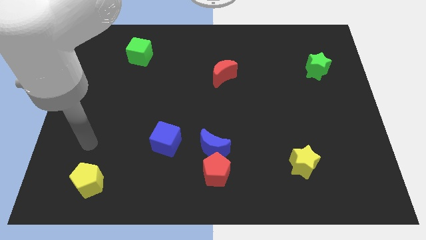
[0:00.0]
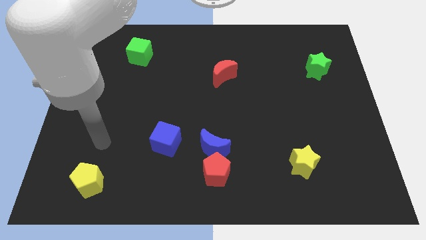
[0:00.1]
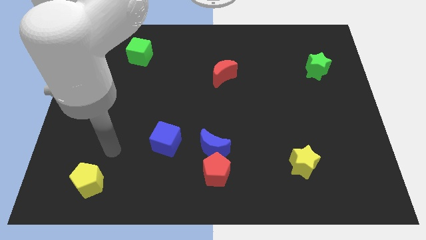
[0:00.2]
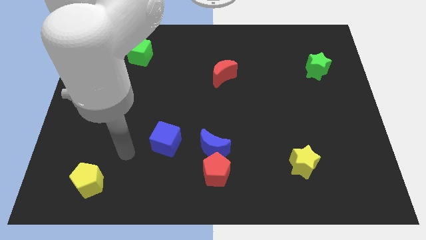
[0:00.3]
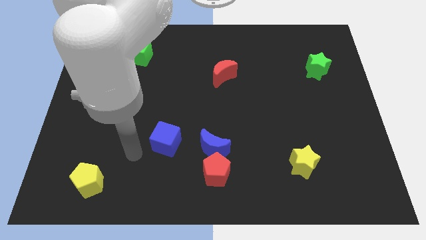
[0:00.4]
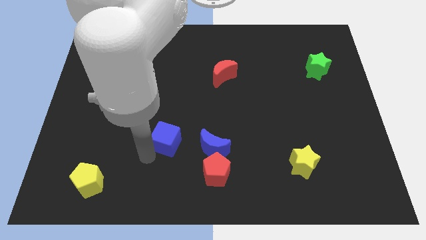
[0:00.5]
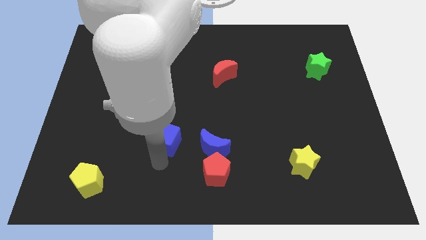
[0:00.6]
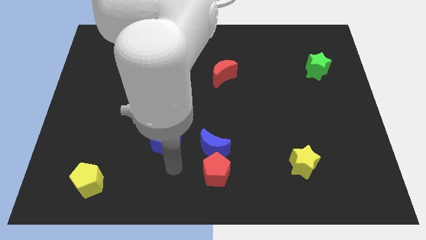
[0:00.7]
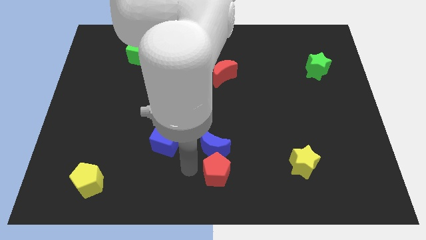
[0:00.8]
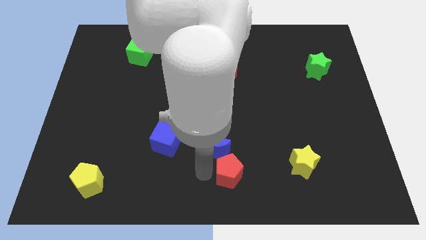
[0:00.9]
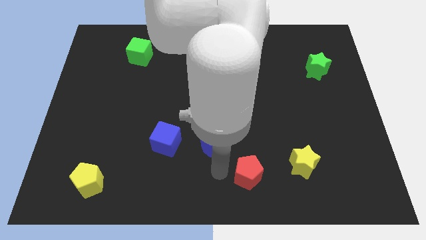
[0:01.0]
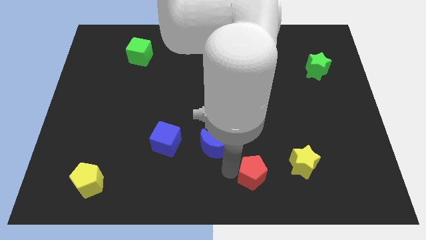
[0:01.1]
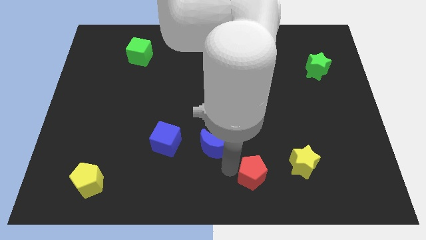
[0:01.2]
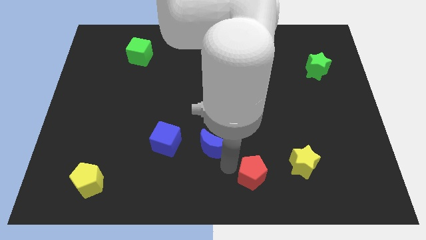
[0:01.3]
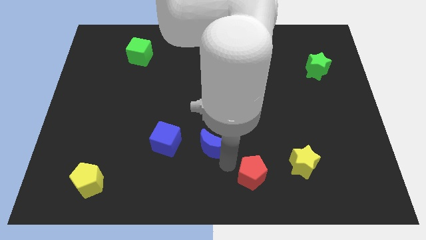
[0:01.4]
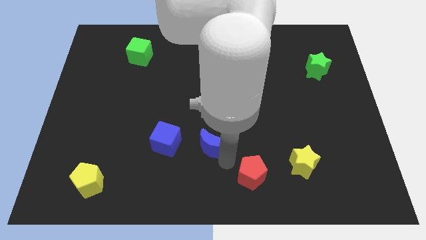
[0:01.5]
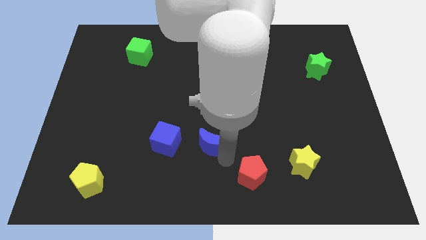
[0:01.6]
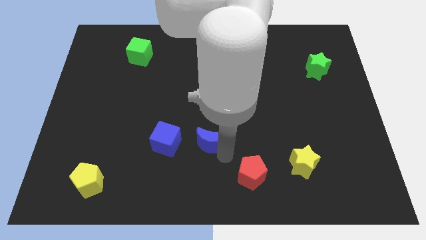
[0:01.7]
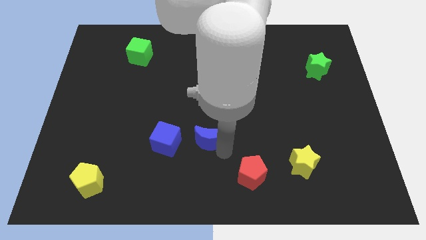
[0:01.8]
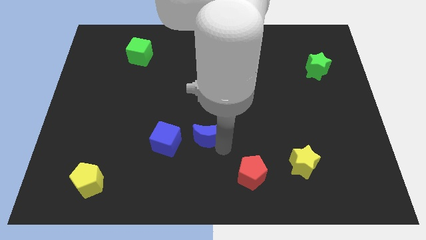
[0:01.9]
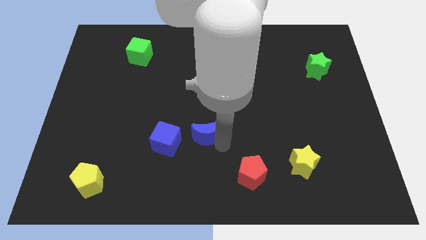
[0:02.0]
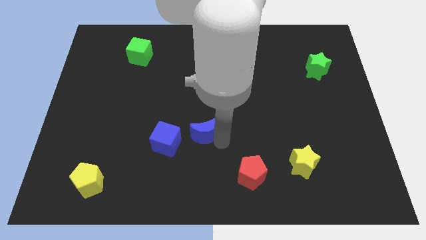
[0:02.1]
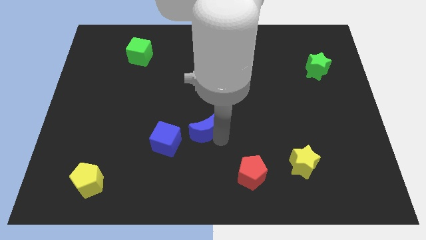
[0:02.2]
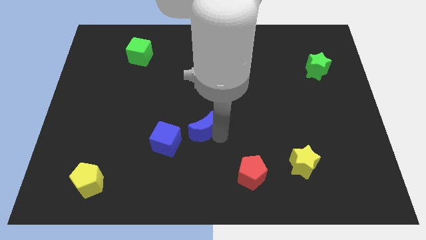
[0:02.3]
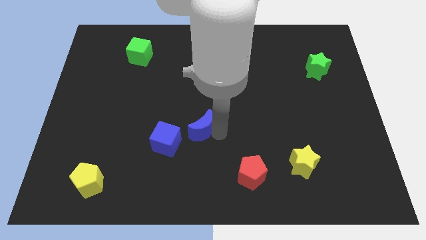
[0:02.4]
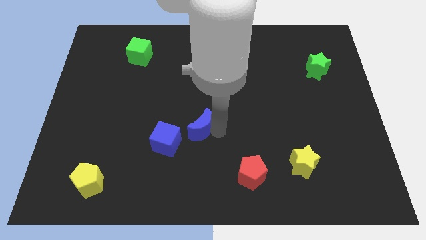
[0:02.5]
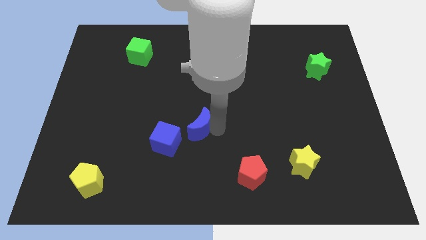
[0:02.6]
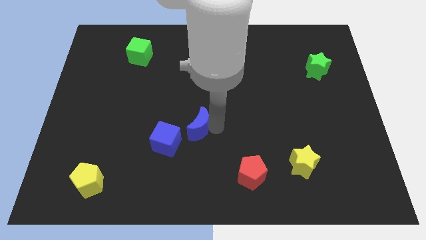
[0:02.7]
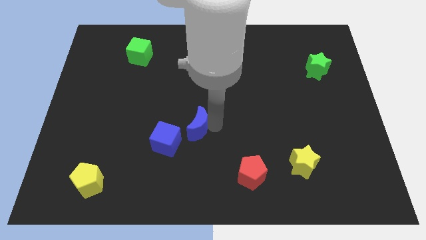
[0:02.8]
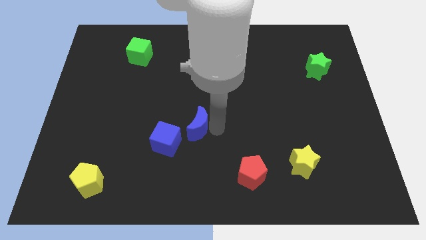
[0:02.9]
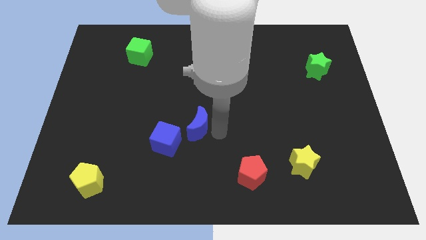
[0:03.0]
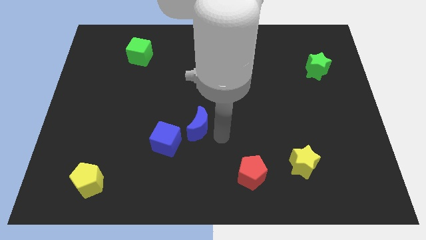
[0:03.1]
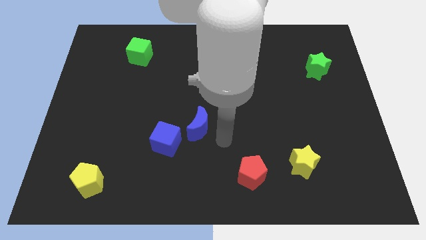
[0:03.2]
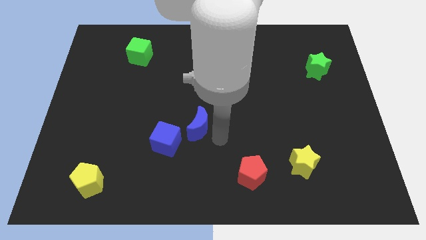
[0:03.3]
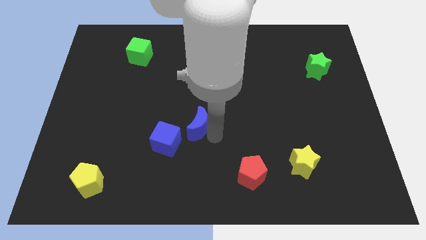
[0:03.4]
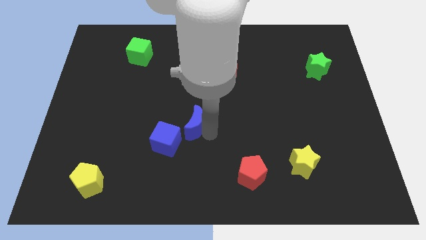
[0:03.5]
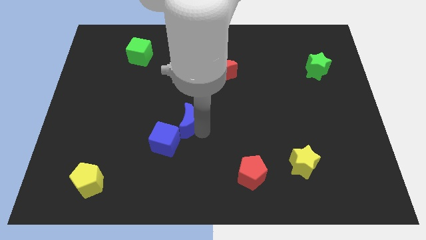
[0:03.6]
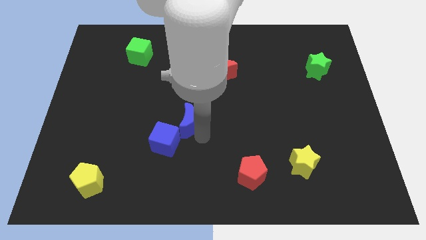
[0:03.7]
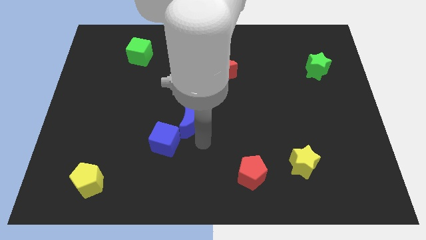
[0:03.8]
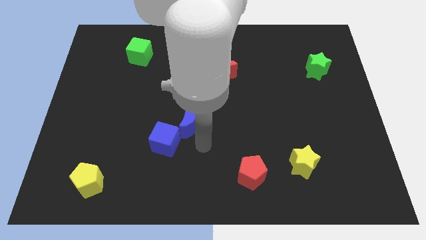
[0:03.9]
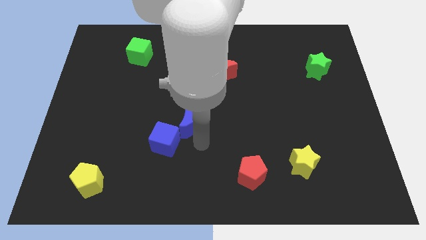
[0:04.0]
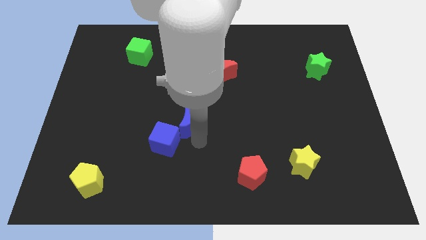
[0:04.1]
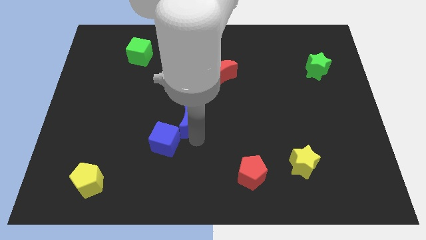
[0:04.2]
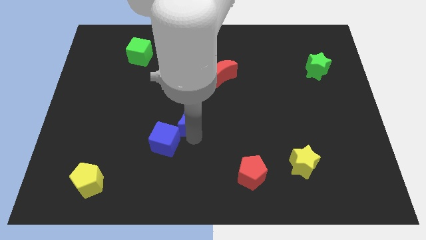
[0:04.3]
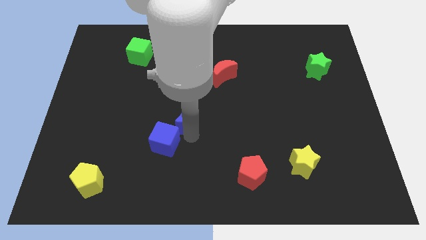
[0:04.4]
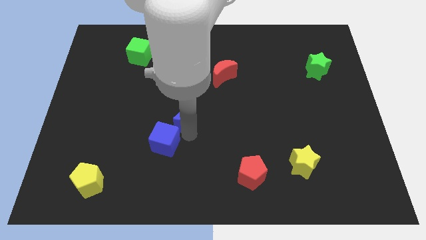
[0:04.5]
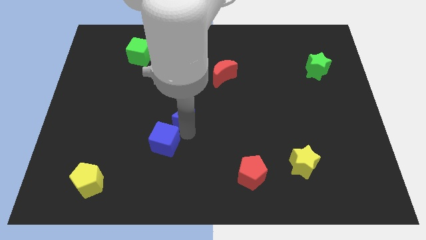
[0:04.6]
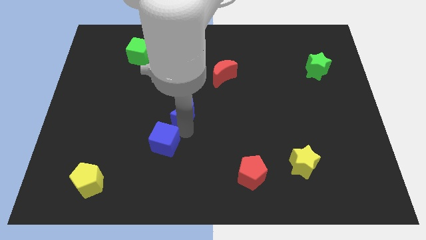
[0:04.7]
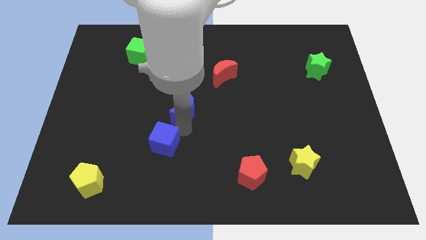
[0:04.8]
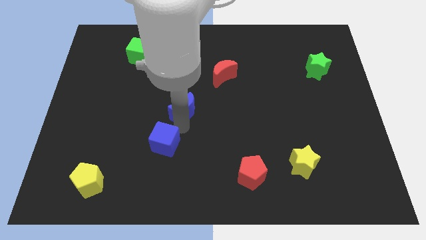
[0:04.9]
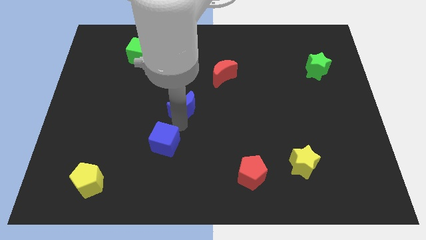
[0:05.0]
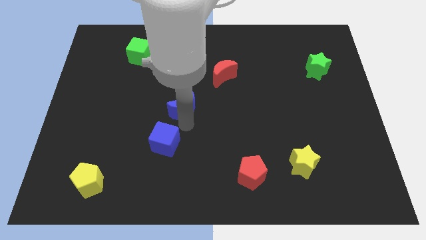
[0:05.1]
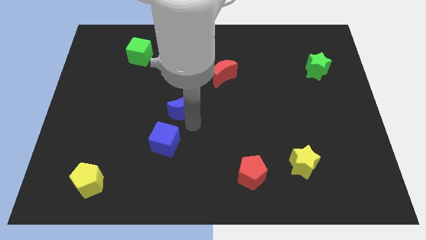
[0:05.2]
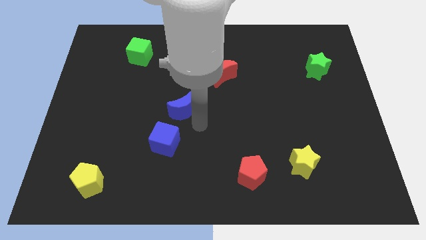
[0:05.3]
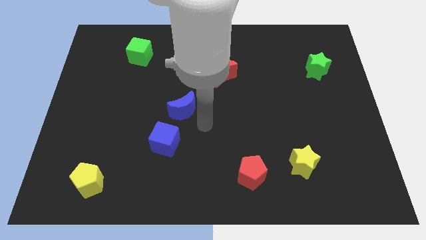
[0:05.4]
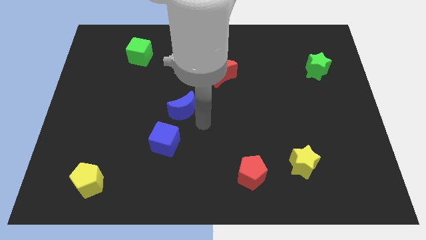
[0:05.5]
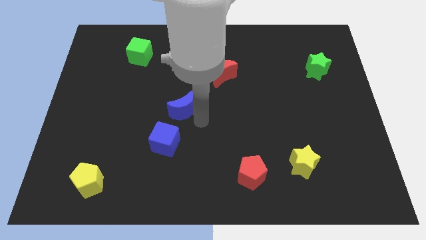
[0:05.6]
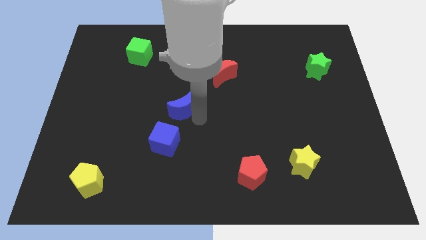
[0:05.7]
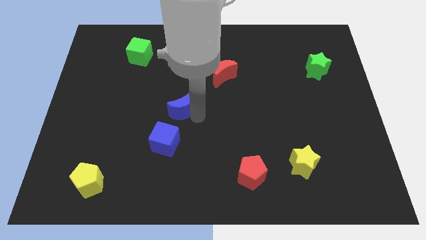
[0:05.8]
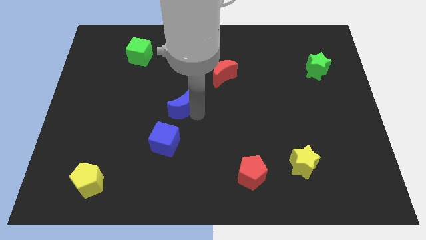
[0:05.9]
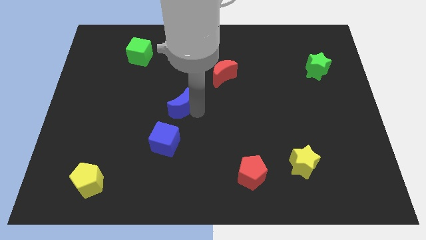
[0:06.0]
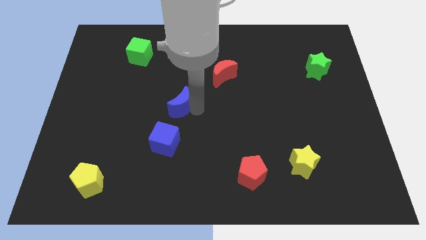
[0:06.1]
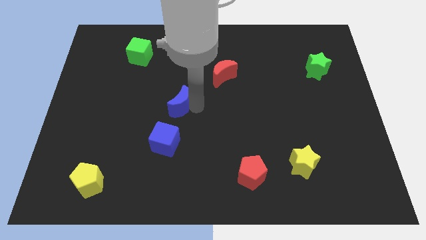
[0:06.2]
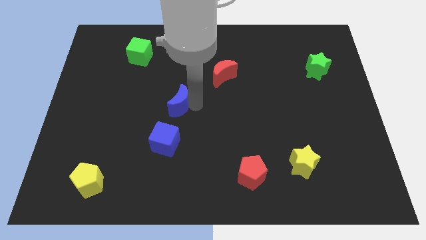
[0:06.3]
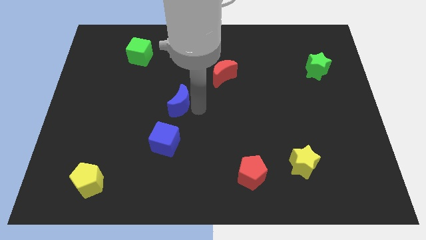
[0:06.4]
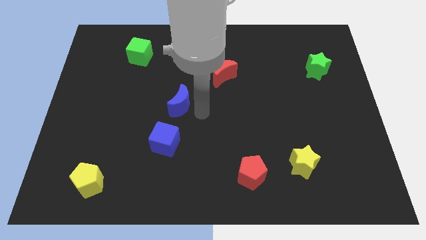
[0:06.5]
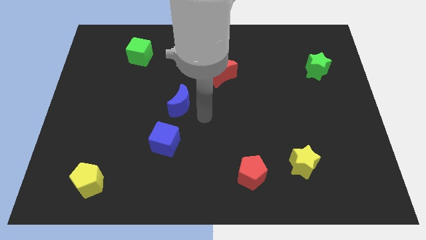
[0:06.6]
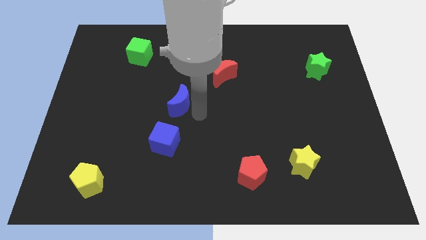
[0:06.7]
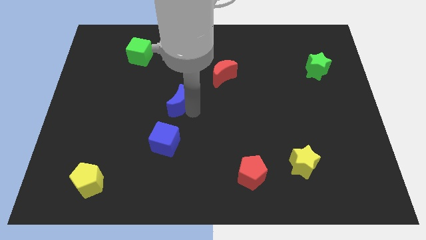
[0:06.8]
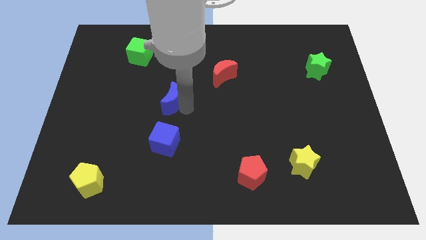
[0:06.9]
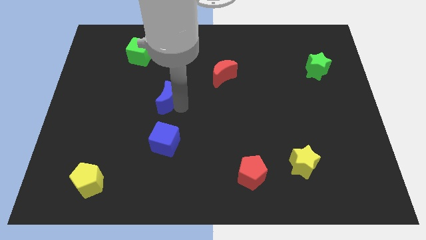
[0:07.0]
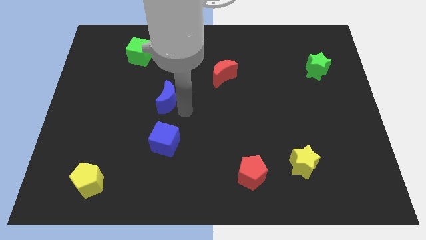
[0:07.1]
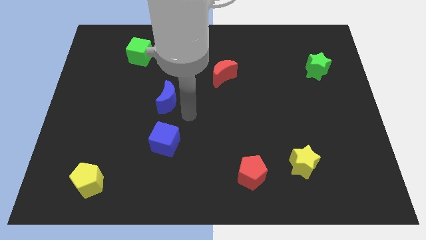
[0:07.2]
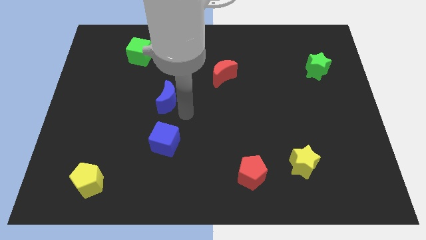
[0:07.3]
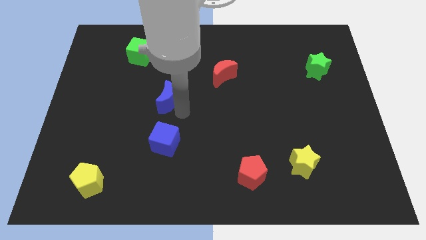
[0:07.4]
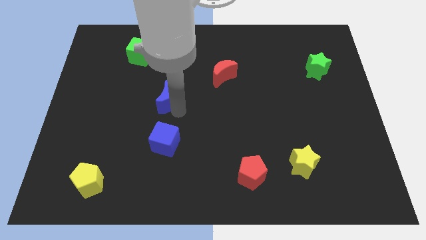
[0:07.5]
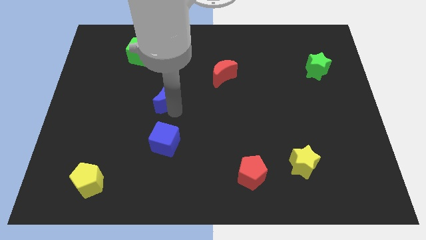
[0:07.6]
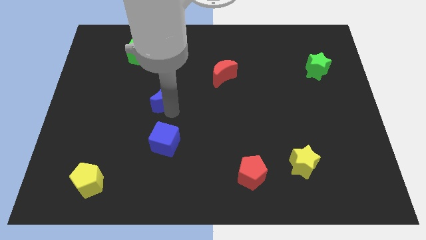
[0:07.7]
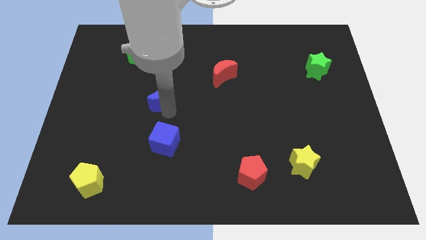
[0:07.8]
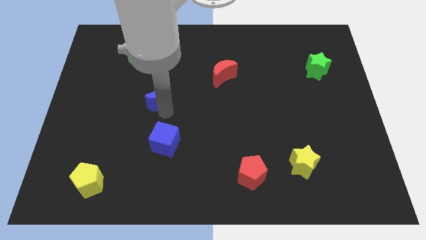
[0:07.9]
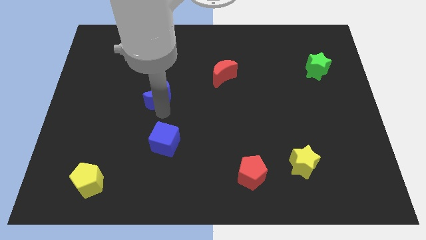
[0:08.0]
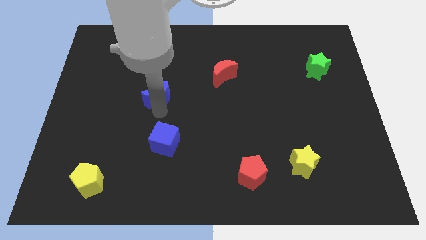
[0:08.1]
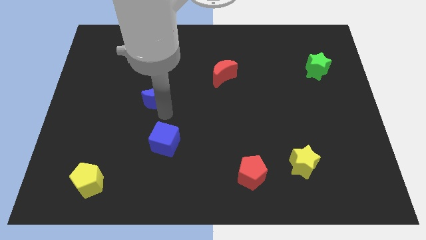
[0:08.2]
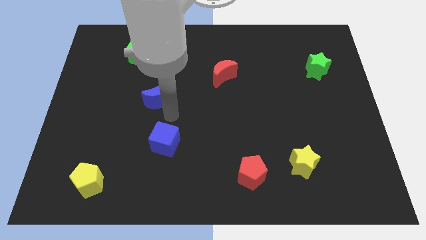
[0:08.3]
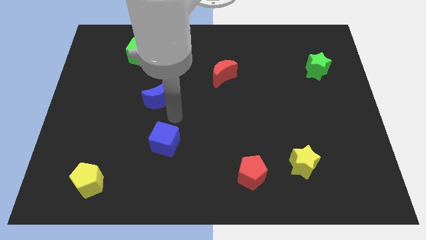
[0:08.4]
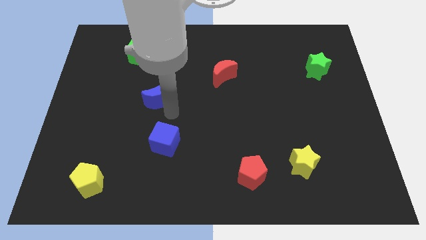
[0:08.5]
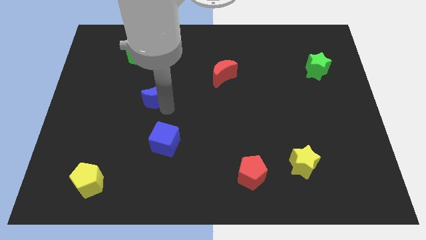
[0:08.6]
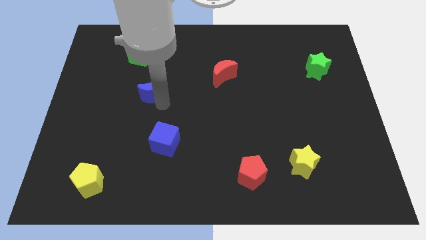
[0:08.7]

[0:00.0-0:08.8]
slide the blue moon up and then left
